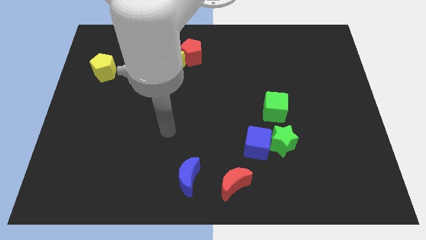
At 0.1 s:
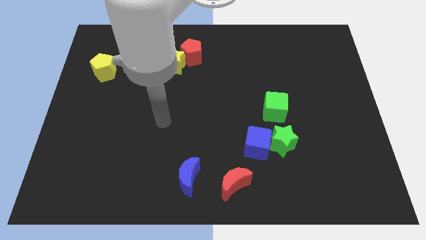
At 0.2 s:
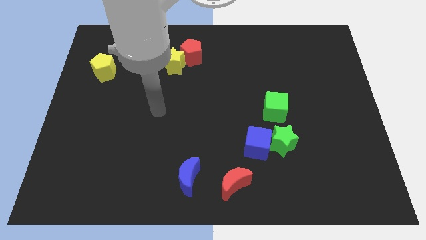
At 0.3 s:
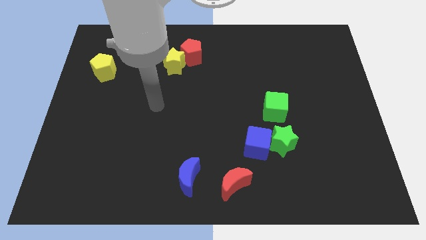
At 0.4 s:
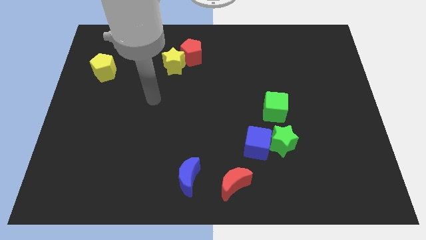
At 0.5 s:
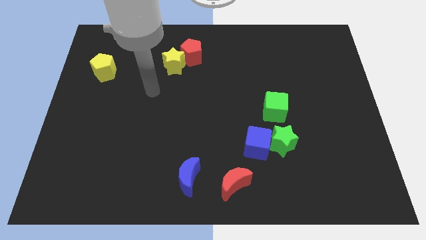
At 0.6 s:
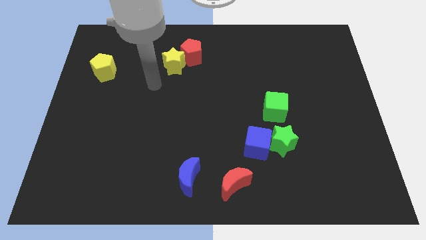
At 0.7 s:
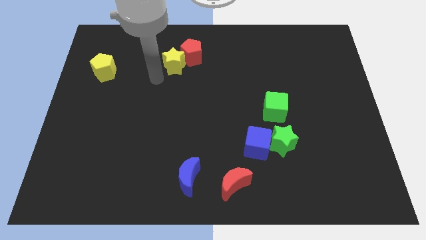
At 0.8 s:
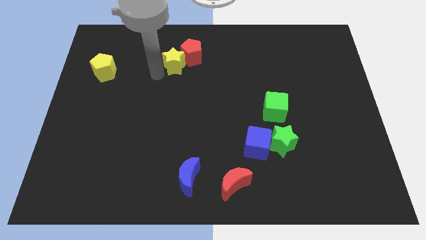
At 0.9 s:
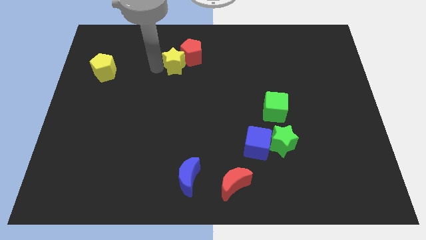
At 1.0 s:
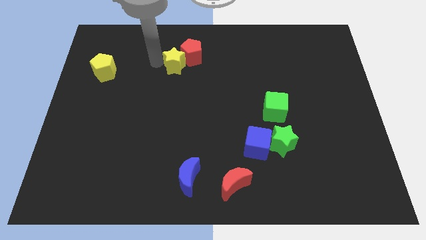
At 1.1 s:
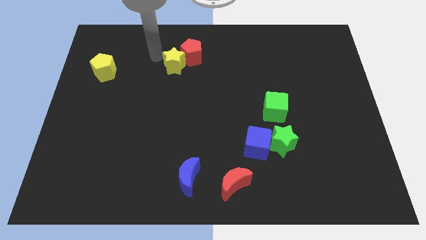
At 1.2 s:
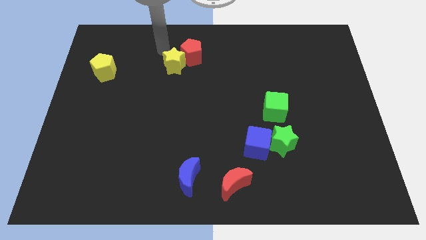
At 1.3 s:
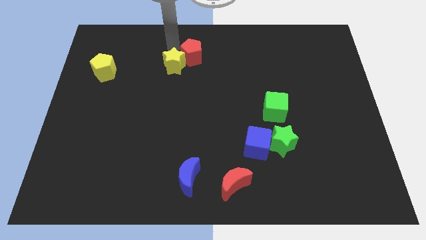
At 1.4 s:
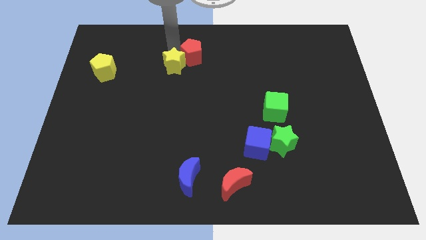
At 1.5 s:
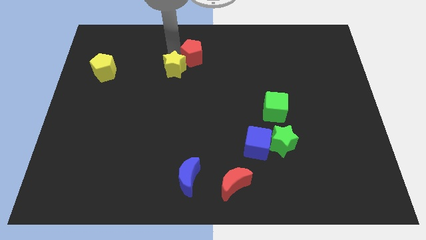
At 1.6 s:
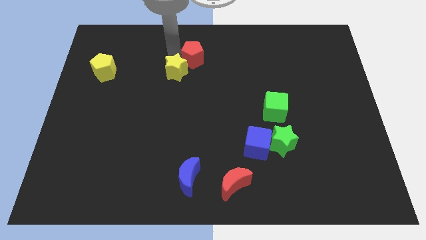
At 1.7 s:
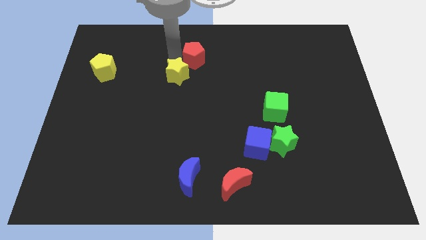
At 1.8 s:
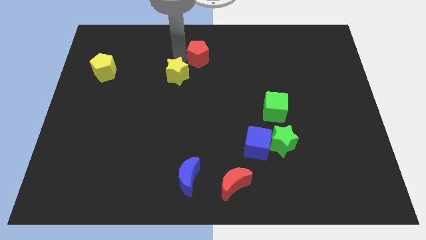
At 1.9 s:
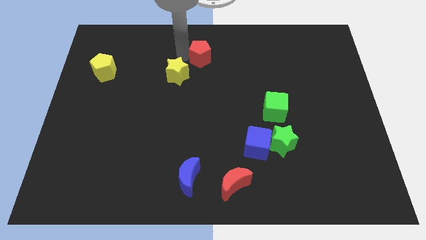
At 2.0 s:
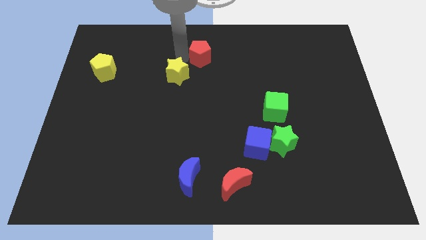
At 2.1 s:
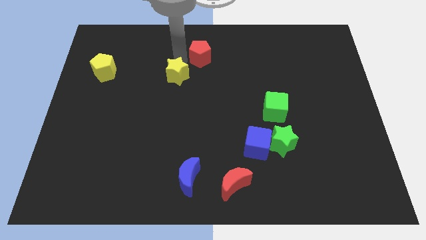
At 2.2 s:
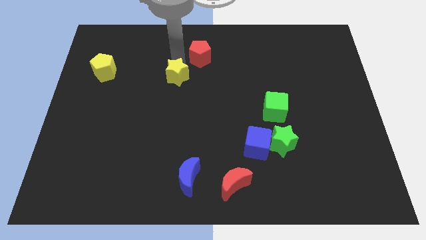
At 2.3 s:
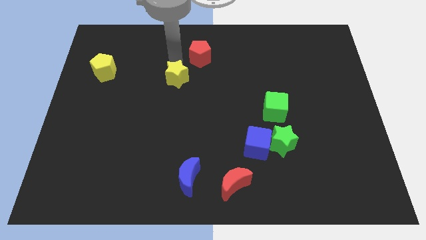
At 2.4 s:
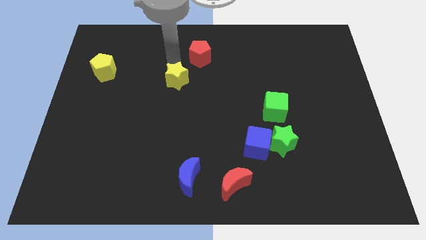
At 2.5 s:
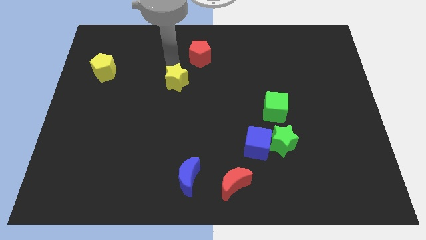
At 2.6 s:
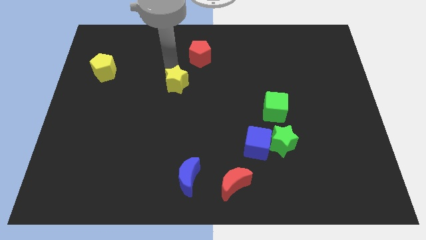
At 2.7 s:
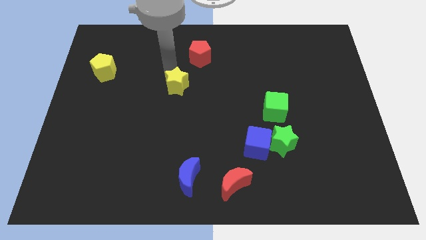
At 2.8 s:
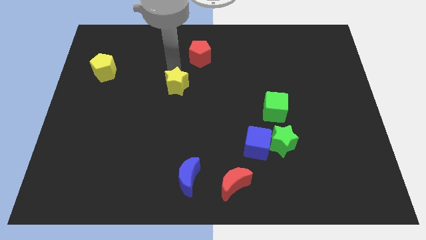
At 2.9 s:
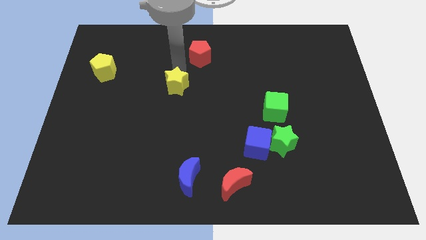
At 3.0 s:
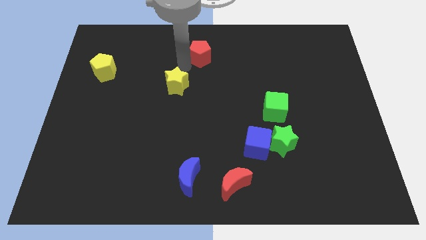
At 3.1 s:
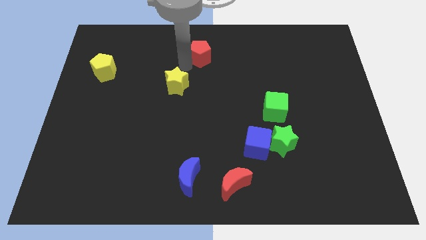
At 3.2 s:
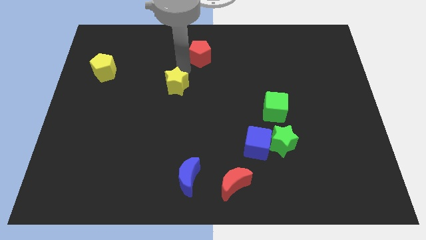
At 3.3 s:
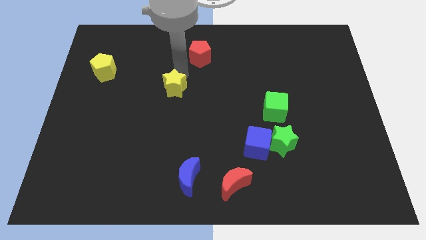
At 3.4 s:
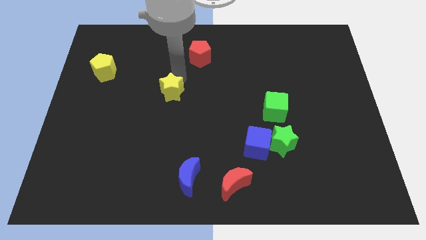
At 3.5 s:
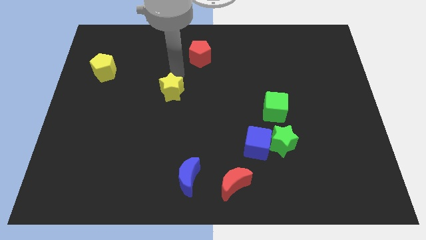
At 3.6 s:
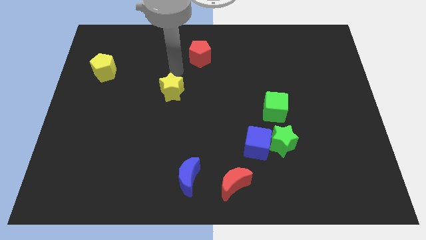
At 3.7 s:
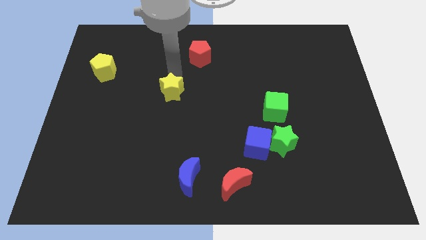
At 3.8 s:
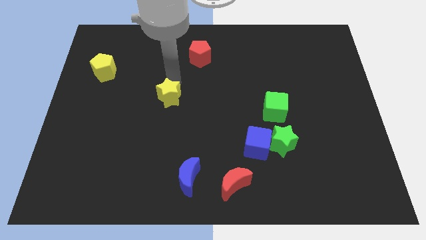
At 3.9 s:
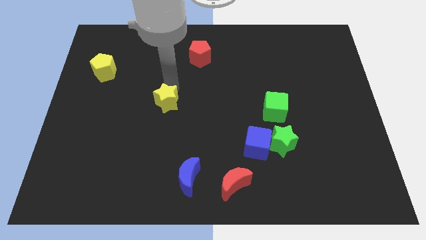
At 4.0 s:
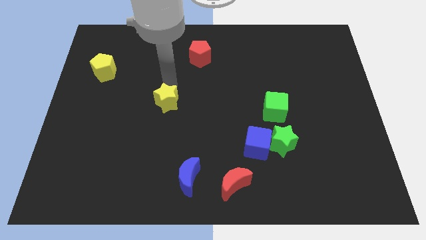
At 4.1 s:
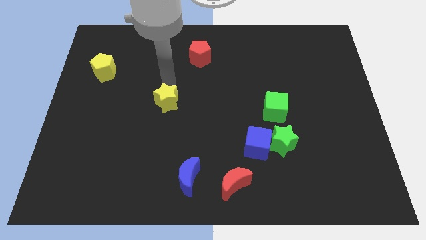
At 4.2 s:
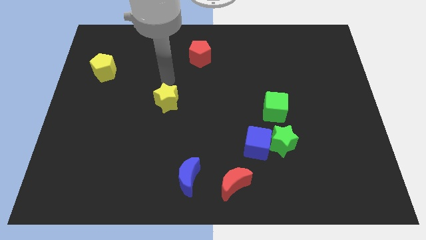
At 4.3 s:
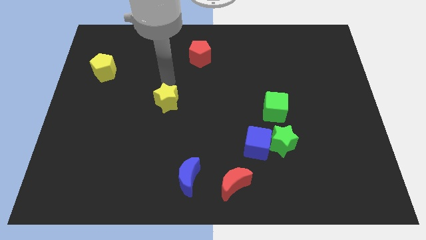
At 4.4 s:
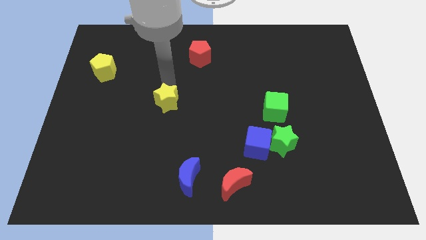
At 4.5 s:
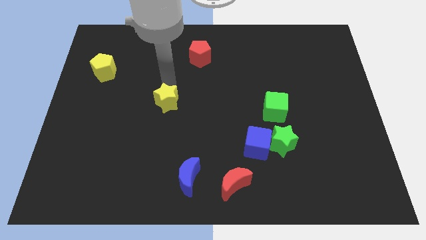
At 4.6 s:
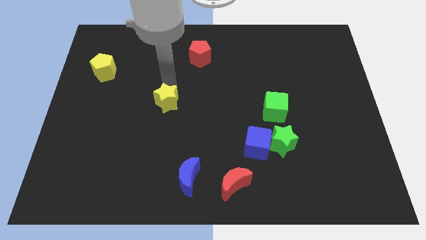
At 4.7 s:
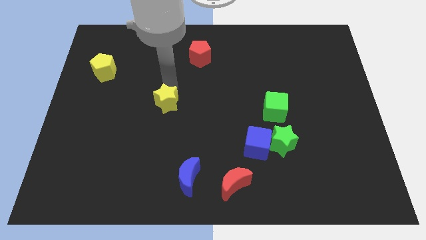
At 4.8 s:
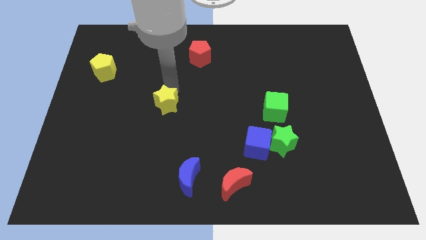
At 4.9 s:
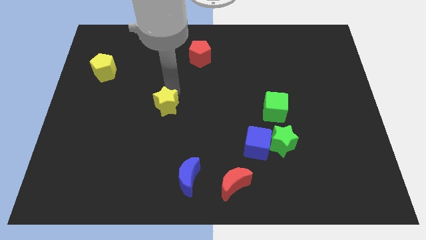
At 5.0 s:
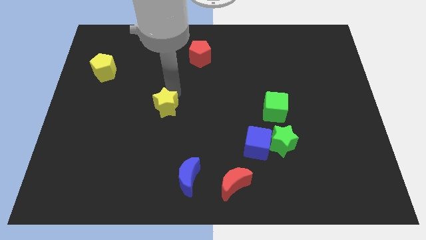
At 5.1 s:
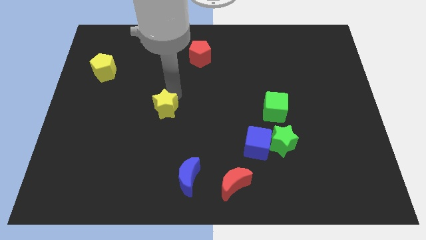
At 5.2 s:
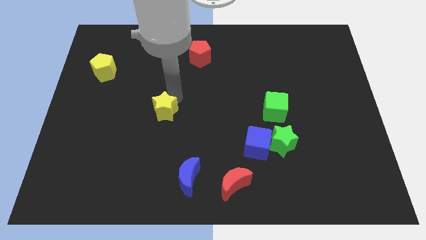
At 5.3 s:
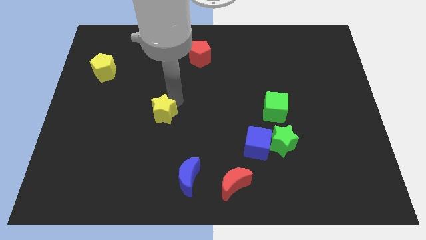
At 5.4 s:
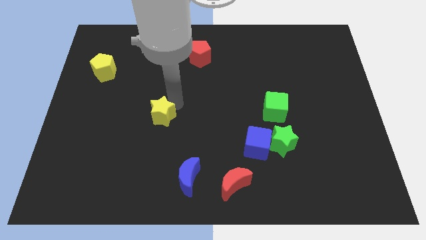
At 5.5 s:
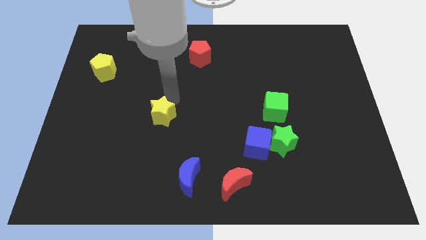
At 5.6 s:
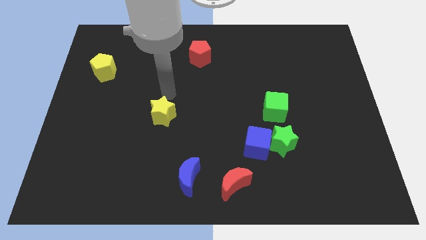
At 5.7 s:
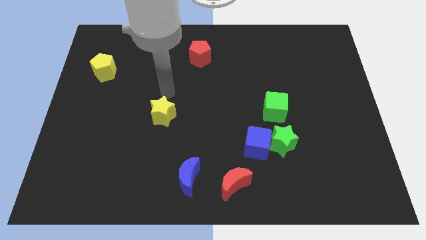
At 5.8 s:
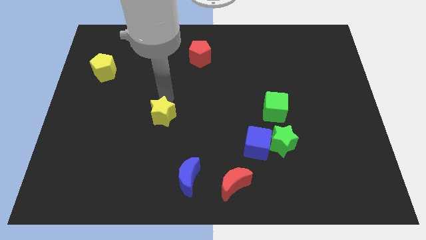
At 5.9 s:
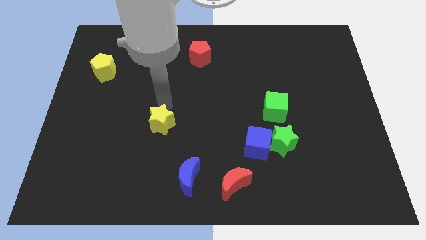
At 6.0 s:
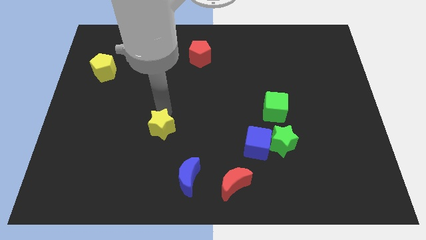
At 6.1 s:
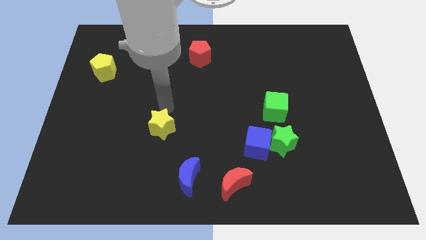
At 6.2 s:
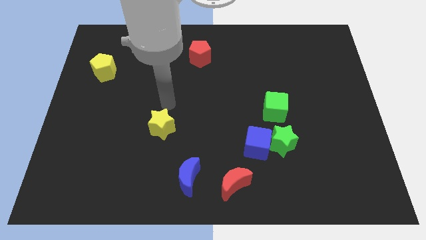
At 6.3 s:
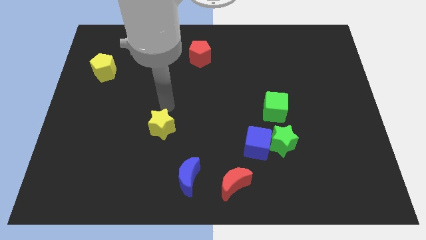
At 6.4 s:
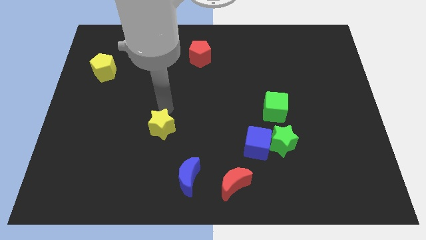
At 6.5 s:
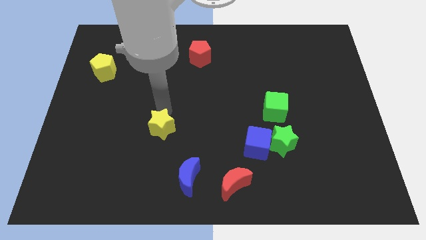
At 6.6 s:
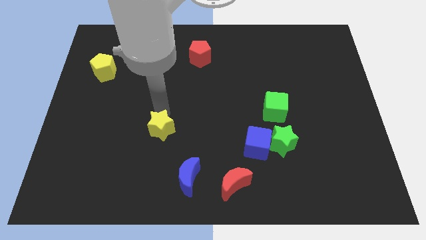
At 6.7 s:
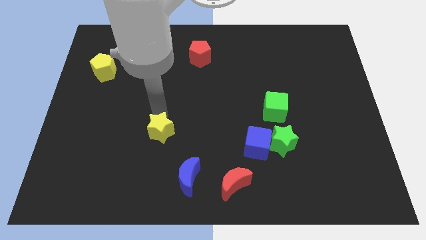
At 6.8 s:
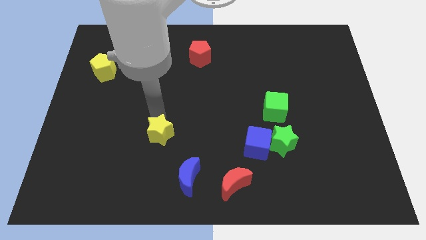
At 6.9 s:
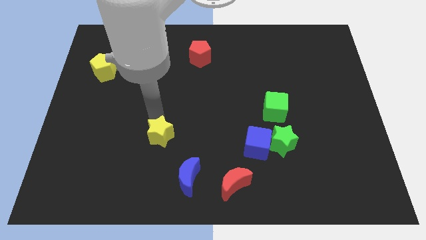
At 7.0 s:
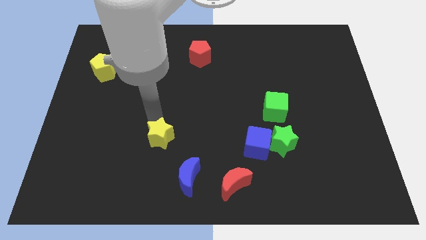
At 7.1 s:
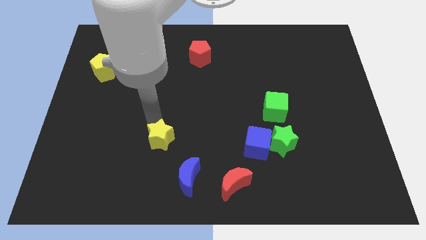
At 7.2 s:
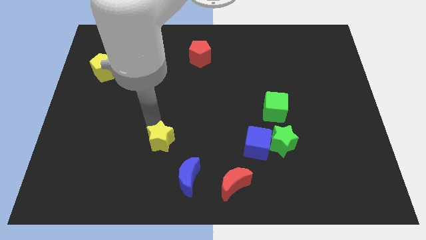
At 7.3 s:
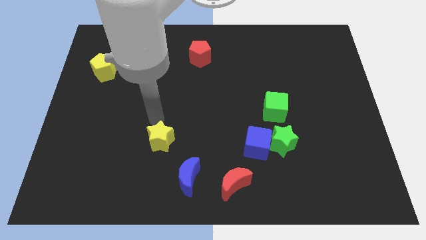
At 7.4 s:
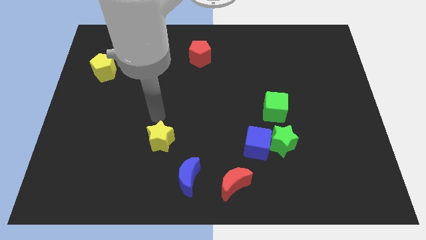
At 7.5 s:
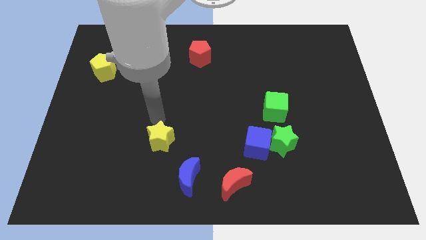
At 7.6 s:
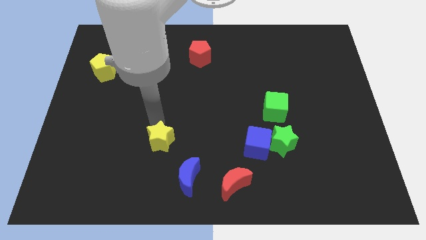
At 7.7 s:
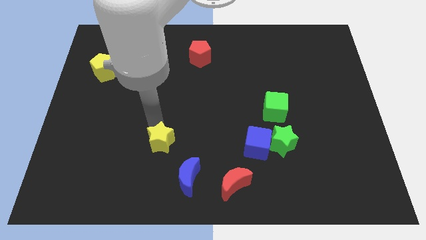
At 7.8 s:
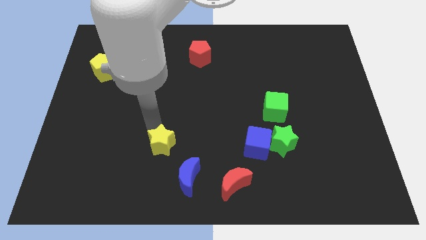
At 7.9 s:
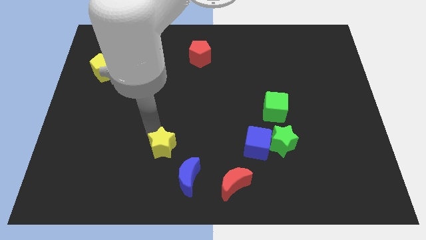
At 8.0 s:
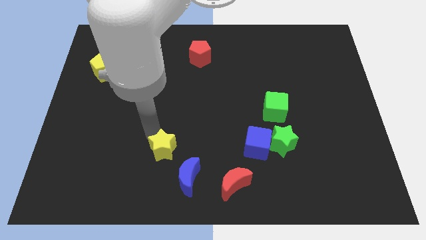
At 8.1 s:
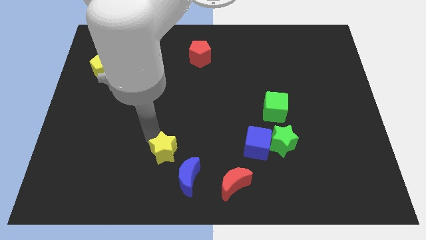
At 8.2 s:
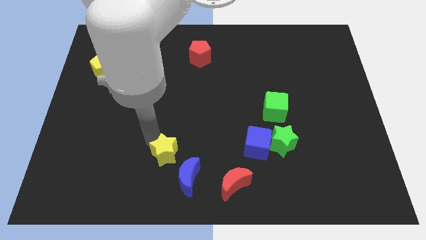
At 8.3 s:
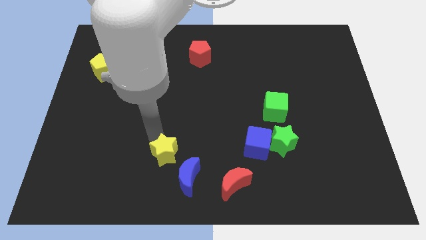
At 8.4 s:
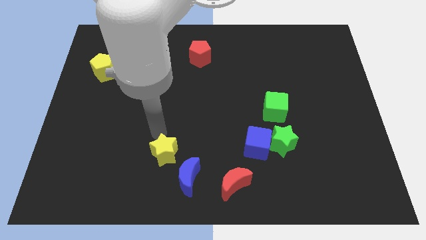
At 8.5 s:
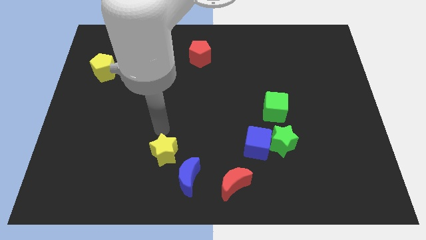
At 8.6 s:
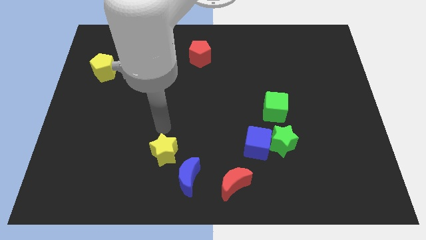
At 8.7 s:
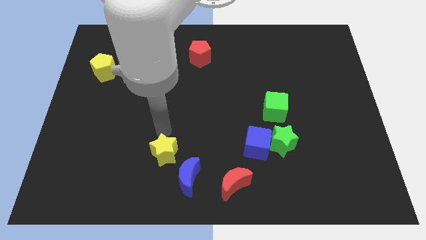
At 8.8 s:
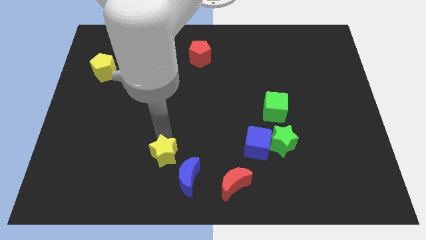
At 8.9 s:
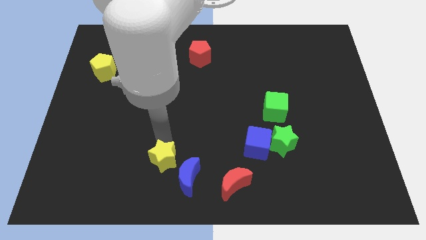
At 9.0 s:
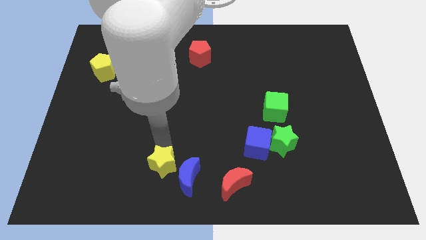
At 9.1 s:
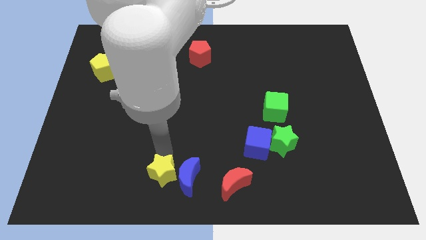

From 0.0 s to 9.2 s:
put the yellow star to the bottom
